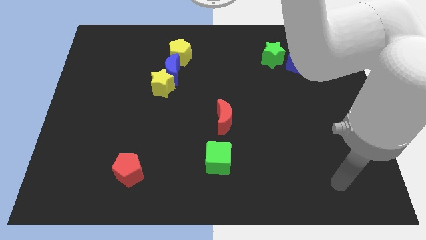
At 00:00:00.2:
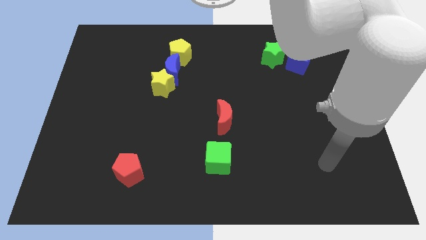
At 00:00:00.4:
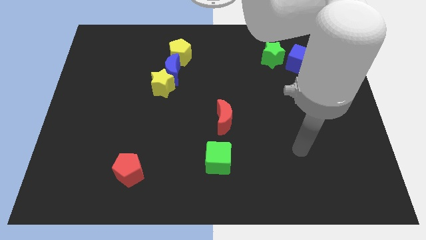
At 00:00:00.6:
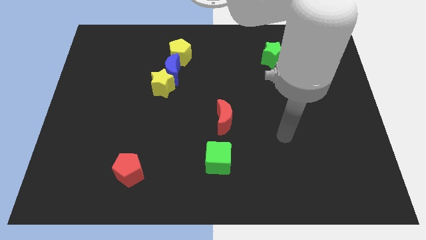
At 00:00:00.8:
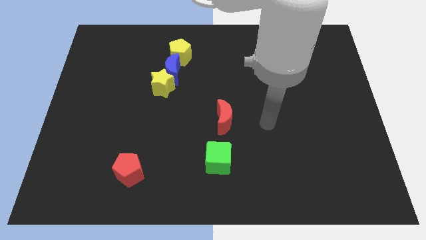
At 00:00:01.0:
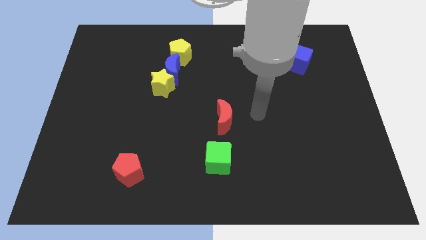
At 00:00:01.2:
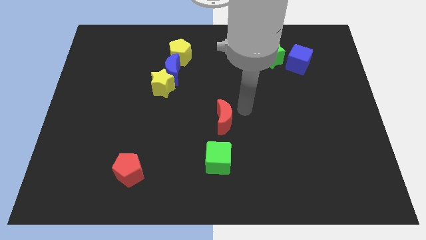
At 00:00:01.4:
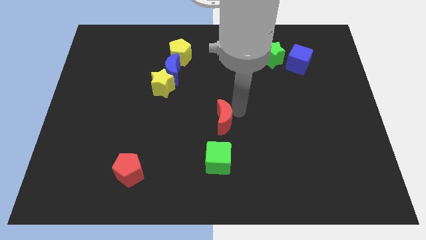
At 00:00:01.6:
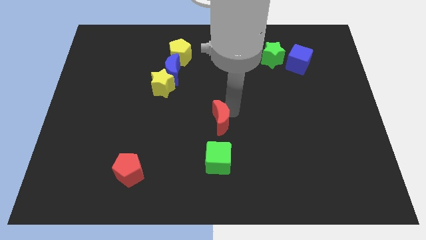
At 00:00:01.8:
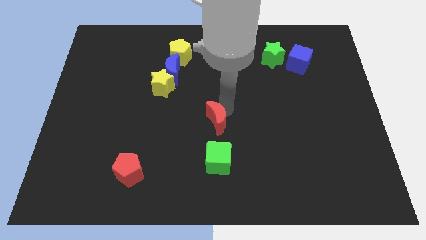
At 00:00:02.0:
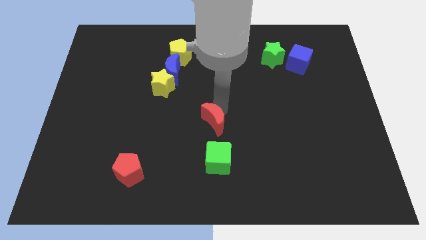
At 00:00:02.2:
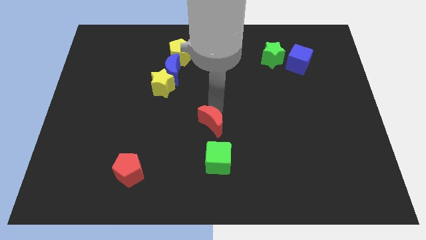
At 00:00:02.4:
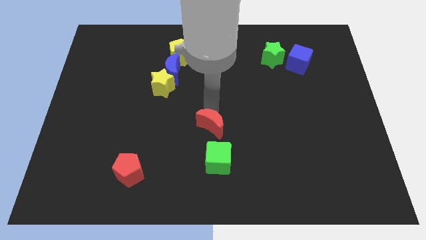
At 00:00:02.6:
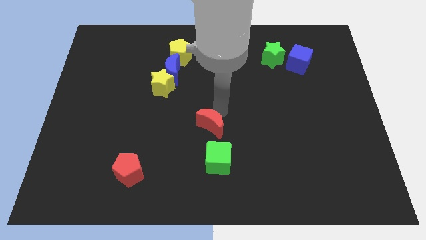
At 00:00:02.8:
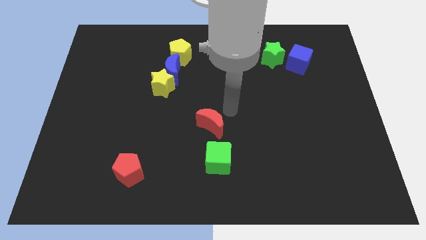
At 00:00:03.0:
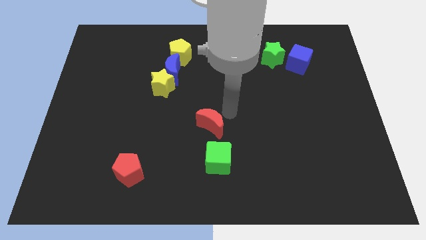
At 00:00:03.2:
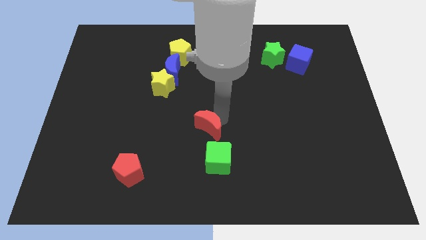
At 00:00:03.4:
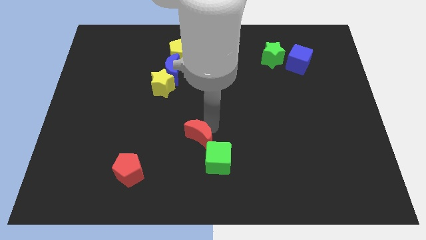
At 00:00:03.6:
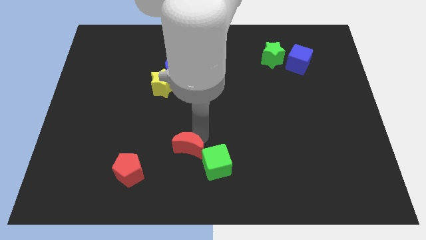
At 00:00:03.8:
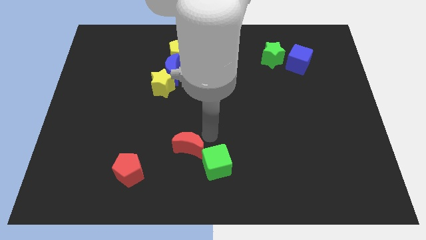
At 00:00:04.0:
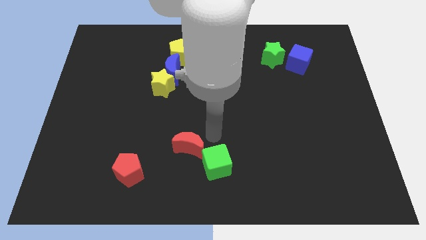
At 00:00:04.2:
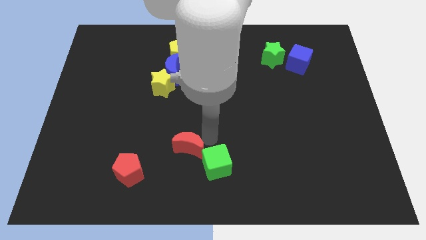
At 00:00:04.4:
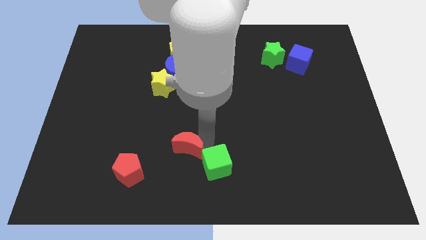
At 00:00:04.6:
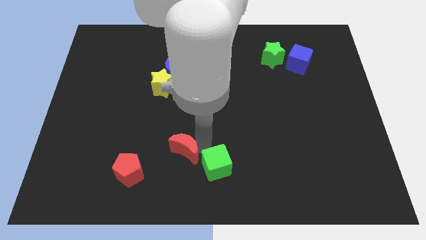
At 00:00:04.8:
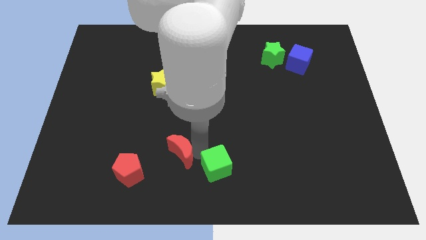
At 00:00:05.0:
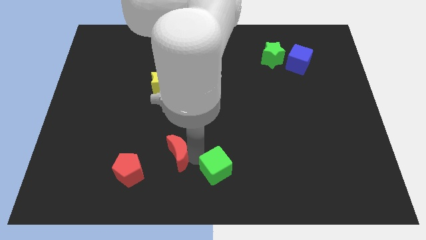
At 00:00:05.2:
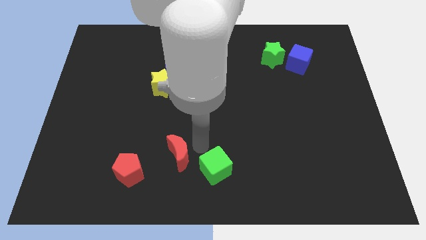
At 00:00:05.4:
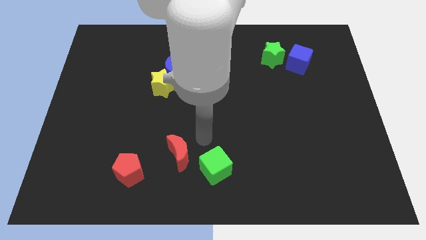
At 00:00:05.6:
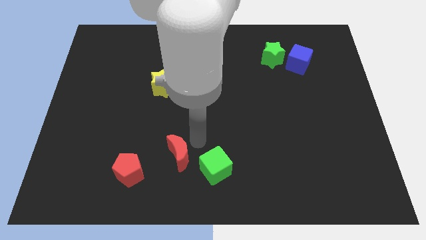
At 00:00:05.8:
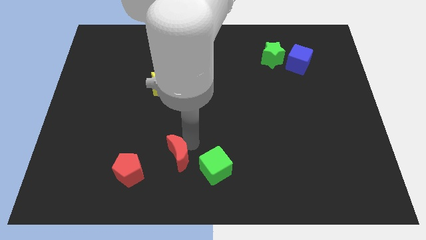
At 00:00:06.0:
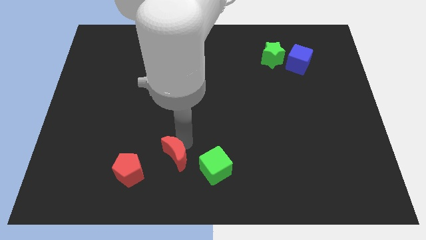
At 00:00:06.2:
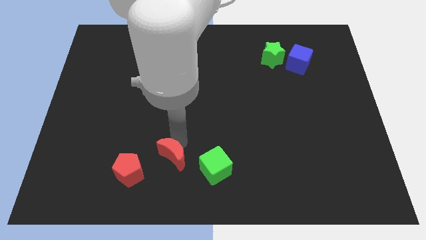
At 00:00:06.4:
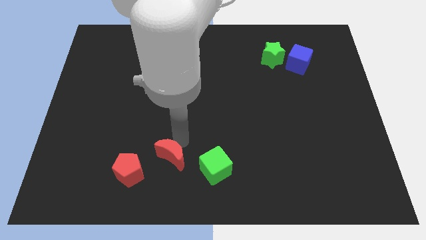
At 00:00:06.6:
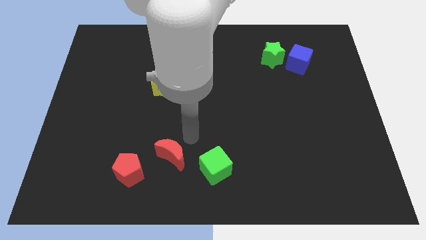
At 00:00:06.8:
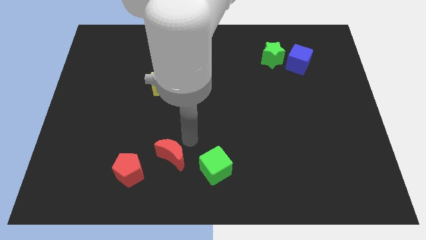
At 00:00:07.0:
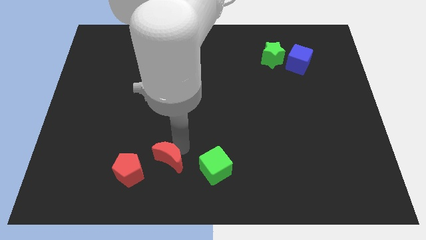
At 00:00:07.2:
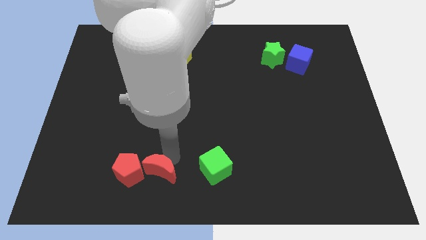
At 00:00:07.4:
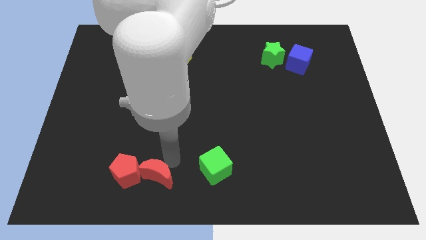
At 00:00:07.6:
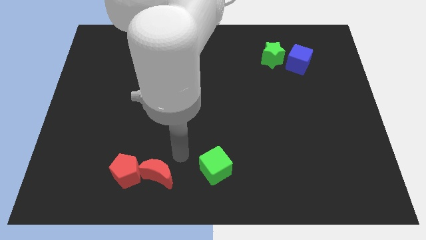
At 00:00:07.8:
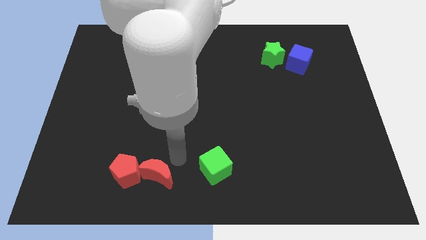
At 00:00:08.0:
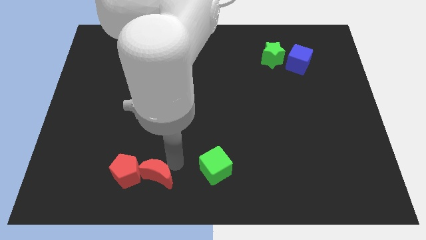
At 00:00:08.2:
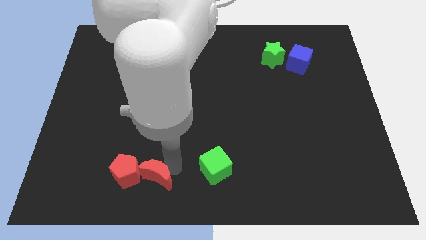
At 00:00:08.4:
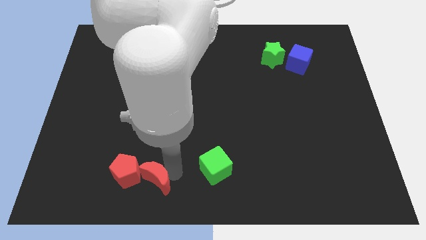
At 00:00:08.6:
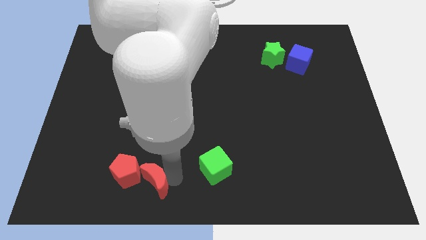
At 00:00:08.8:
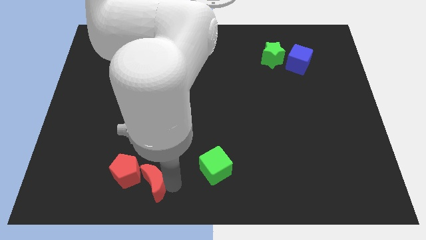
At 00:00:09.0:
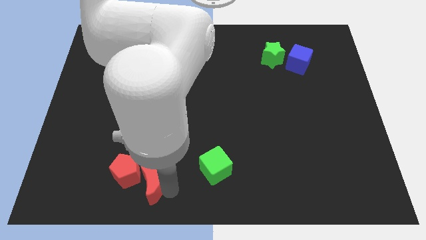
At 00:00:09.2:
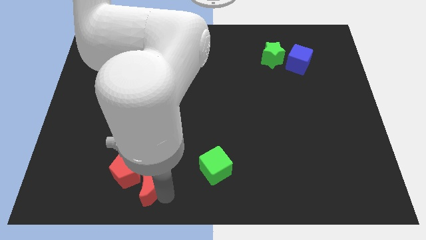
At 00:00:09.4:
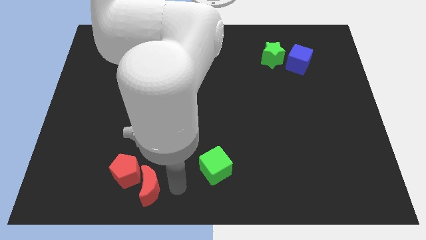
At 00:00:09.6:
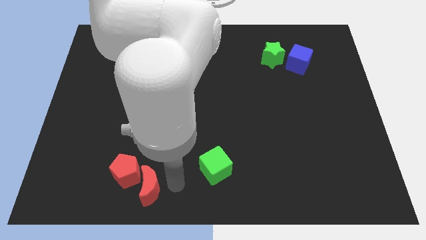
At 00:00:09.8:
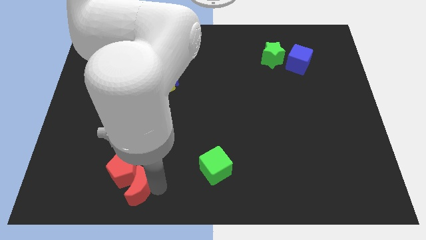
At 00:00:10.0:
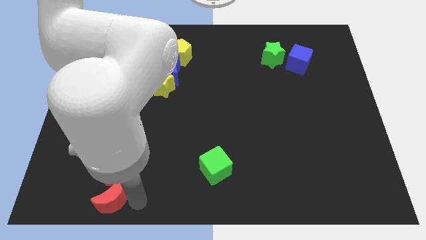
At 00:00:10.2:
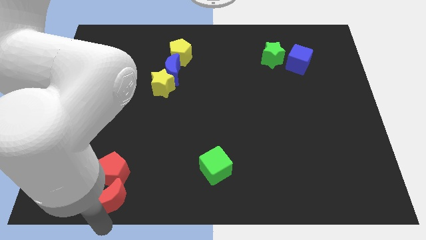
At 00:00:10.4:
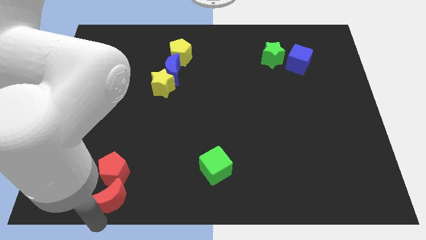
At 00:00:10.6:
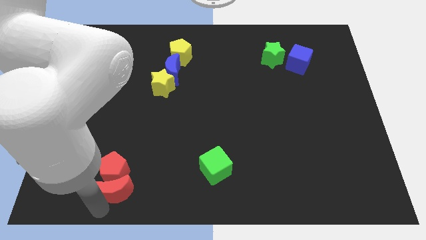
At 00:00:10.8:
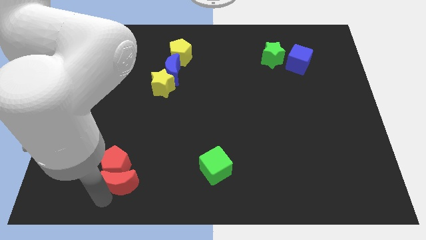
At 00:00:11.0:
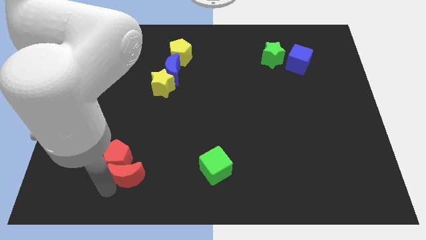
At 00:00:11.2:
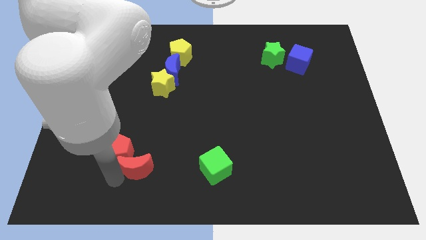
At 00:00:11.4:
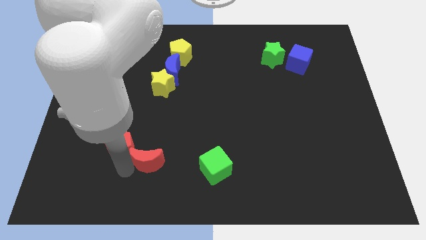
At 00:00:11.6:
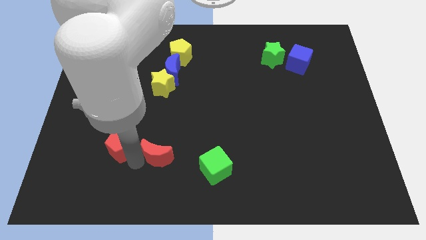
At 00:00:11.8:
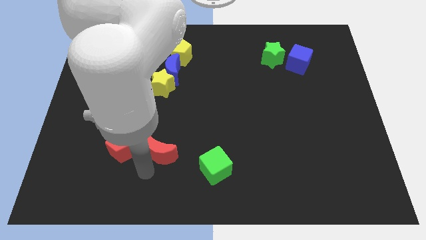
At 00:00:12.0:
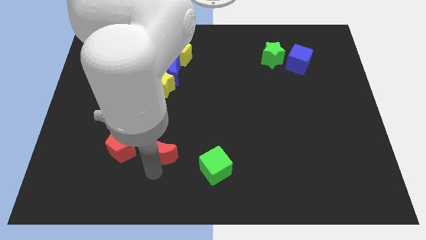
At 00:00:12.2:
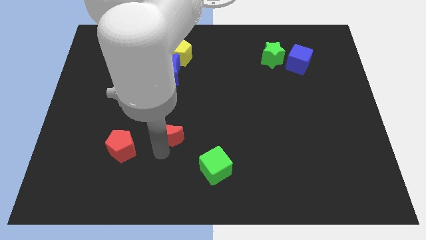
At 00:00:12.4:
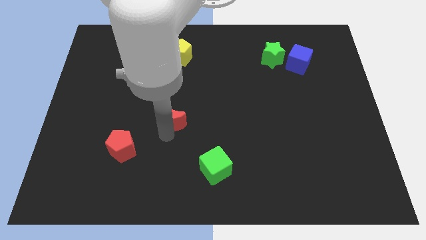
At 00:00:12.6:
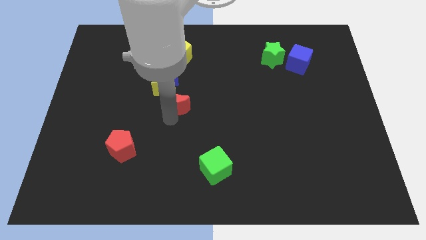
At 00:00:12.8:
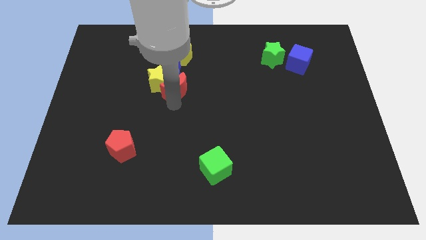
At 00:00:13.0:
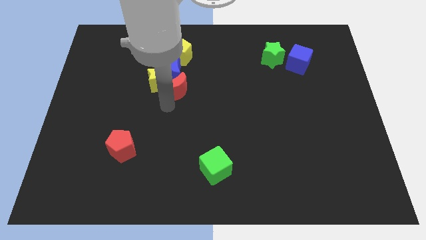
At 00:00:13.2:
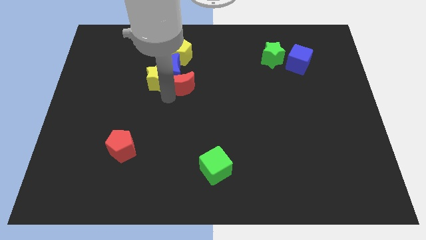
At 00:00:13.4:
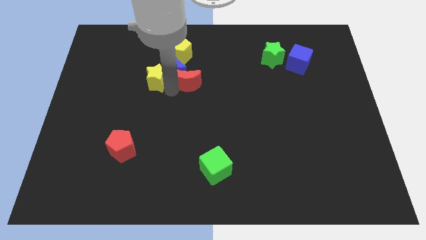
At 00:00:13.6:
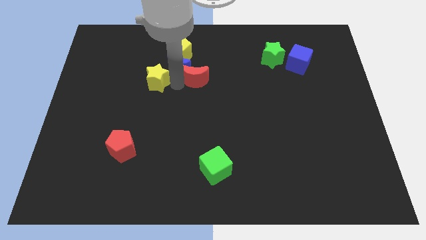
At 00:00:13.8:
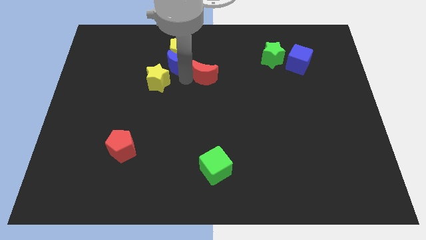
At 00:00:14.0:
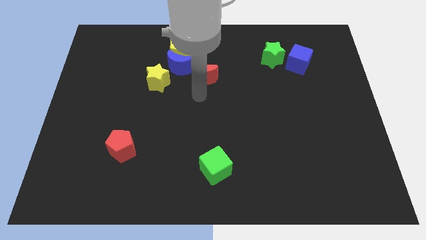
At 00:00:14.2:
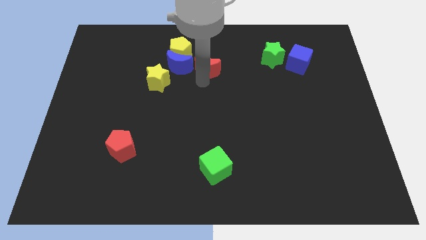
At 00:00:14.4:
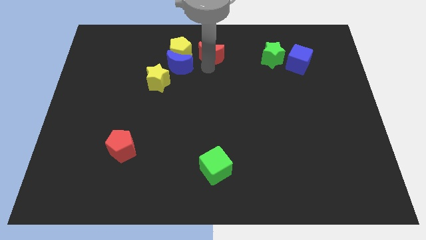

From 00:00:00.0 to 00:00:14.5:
slide the red moon to the top side
